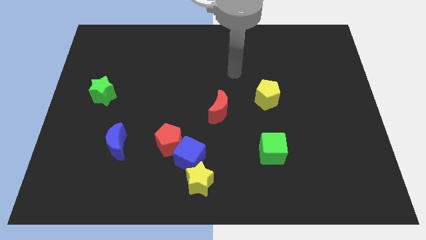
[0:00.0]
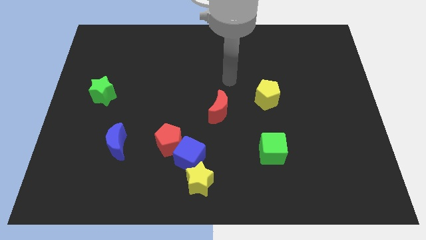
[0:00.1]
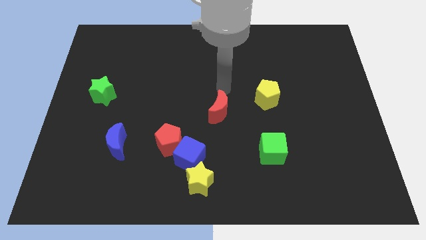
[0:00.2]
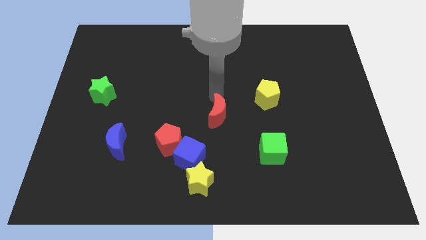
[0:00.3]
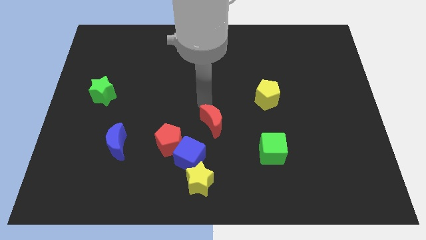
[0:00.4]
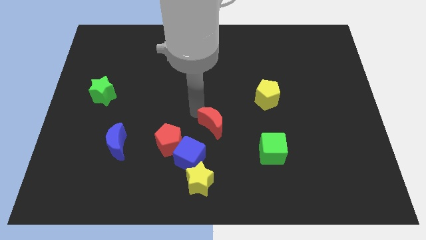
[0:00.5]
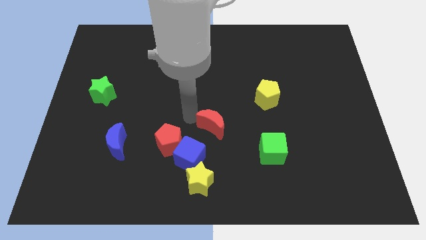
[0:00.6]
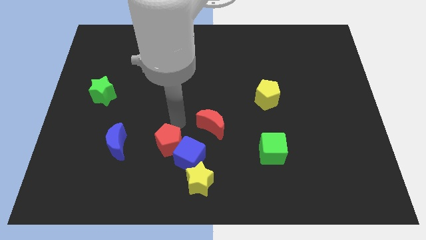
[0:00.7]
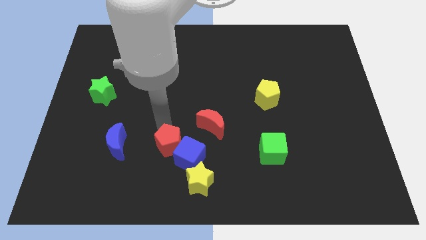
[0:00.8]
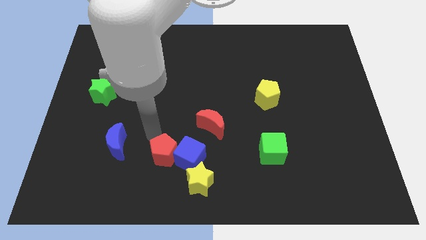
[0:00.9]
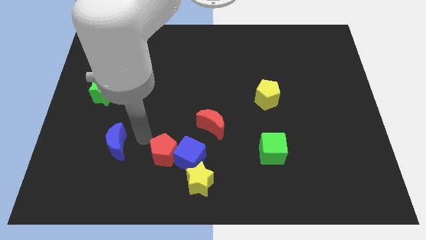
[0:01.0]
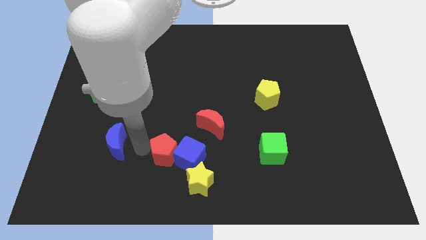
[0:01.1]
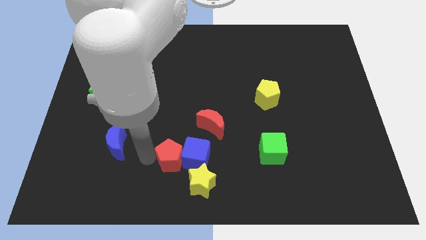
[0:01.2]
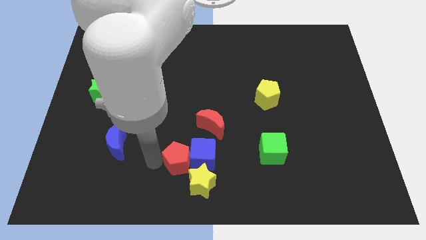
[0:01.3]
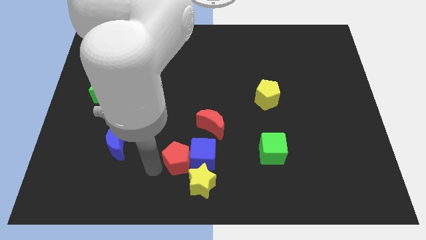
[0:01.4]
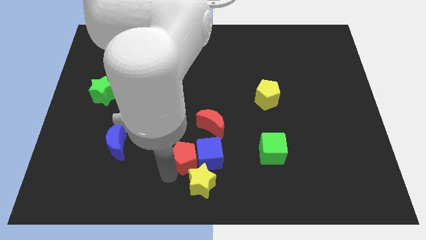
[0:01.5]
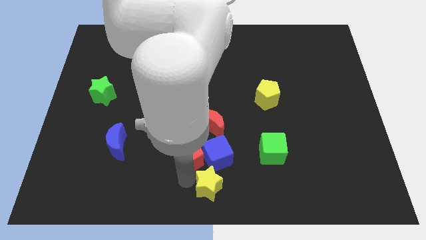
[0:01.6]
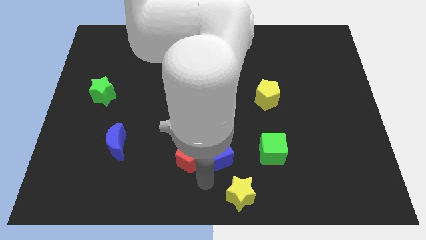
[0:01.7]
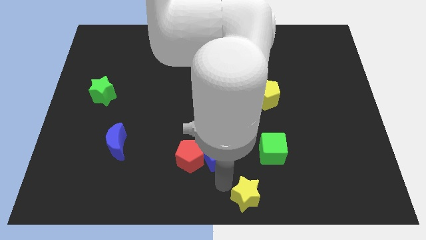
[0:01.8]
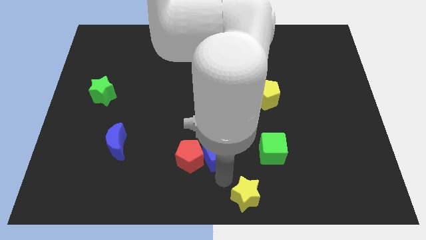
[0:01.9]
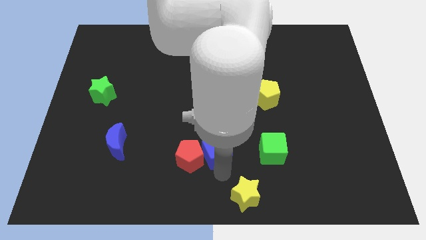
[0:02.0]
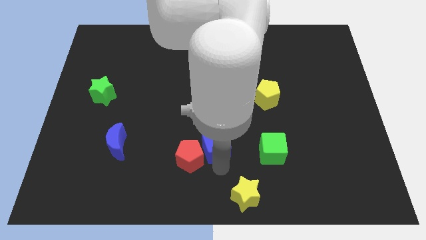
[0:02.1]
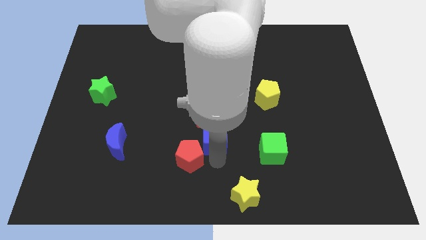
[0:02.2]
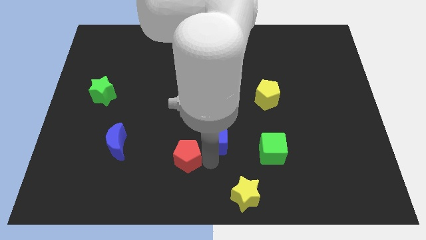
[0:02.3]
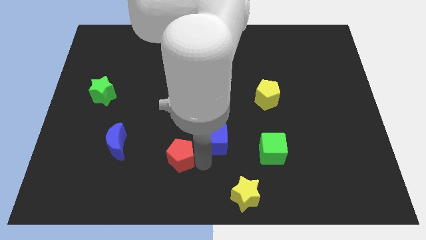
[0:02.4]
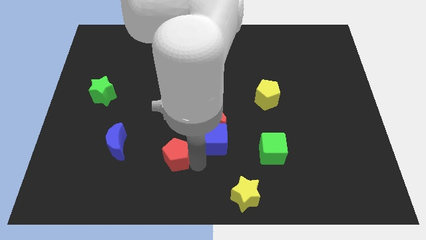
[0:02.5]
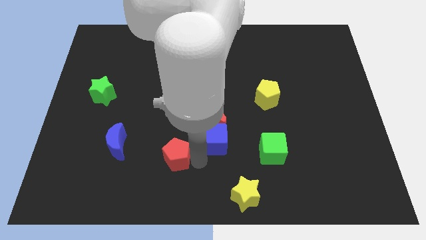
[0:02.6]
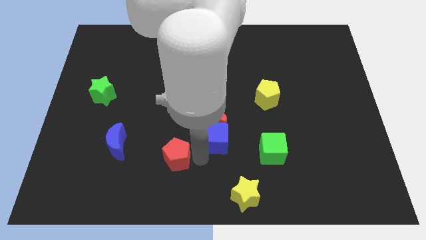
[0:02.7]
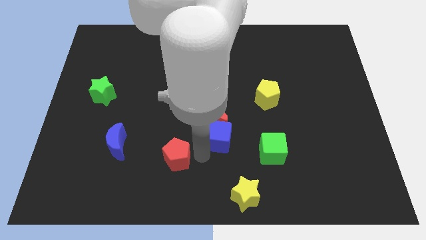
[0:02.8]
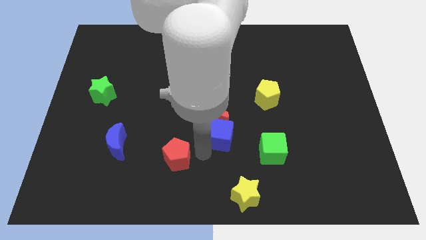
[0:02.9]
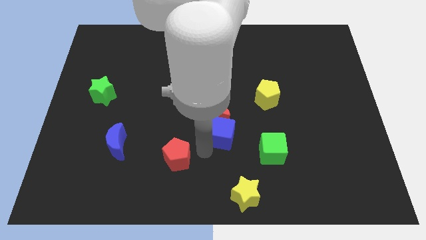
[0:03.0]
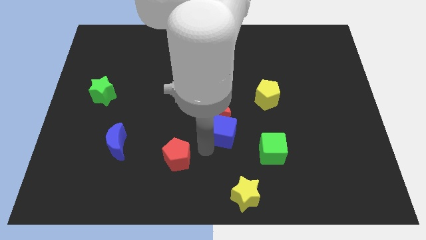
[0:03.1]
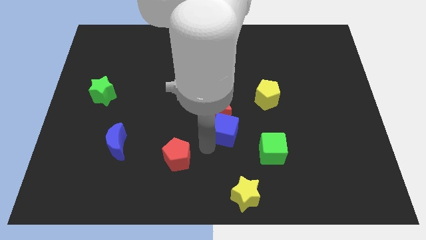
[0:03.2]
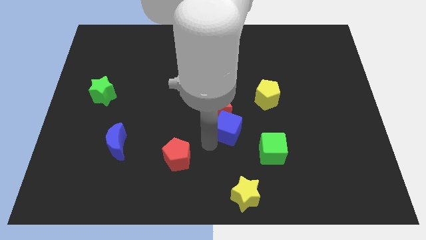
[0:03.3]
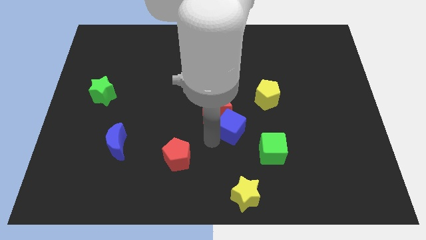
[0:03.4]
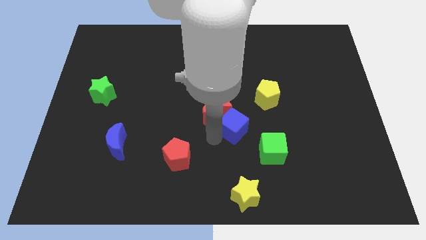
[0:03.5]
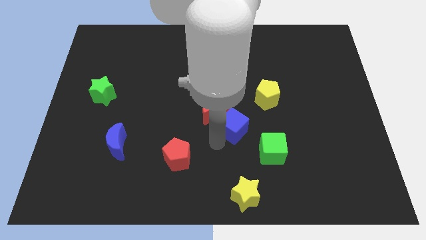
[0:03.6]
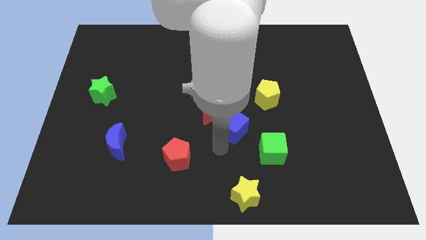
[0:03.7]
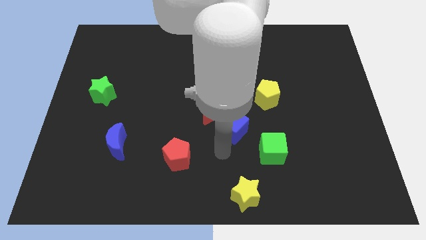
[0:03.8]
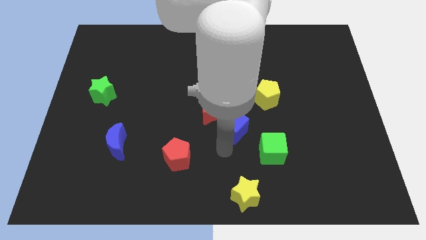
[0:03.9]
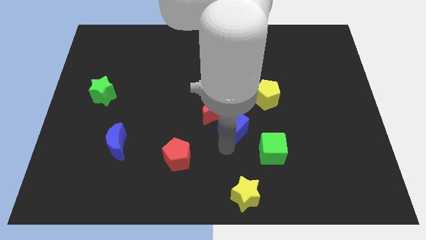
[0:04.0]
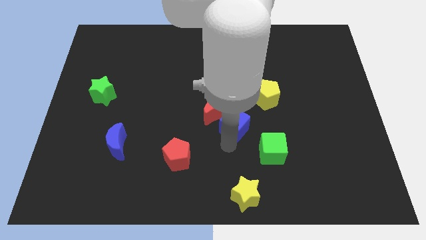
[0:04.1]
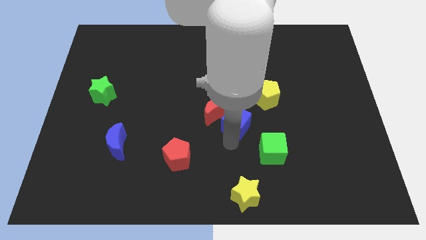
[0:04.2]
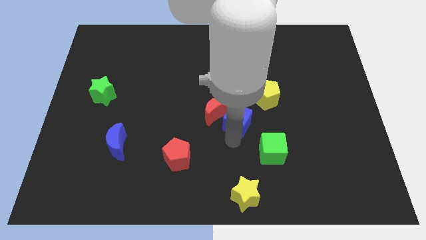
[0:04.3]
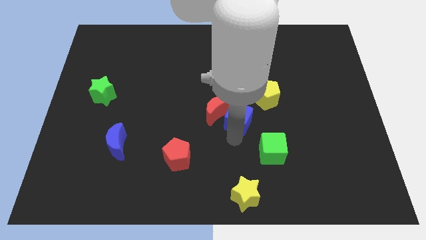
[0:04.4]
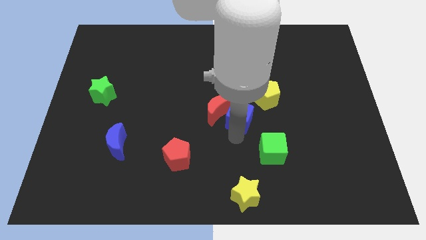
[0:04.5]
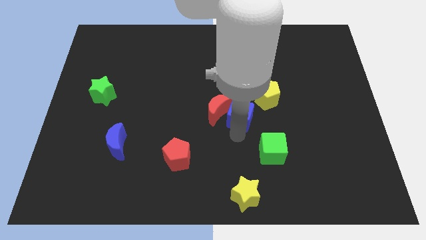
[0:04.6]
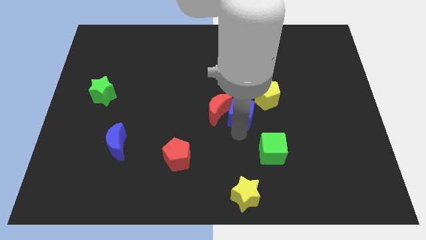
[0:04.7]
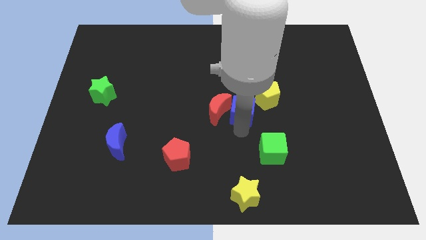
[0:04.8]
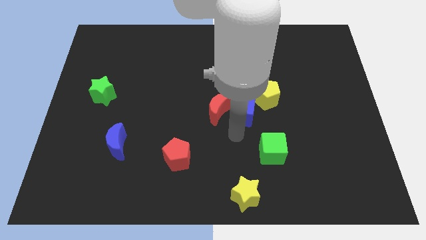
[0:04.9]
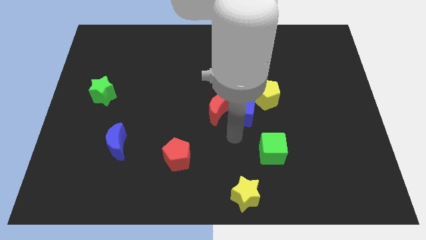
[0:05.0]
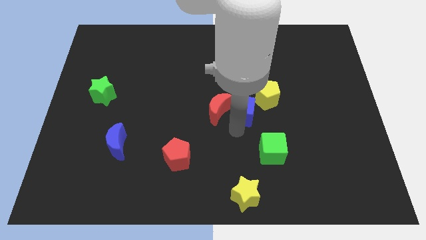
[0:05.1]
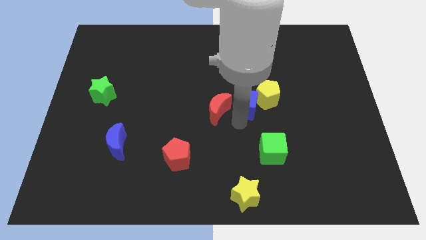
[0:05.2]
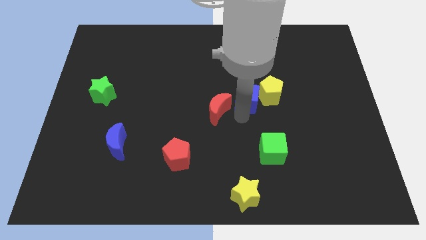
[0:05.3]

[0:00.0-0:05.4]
push the blue cube diagonally upwards and to the right

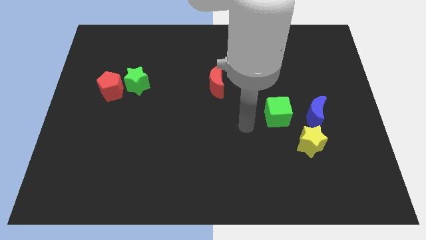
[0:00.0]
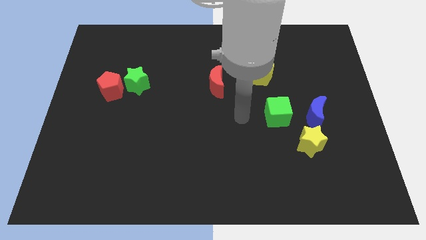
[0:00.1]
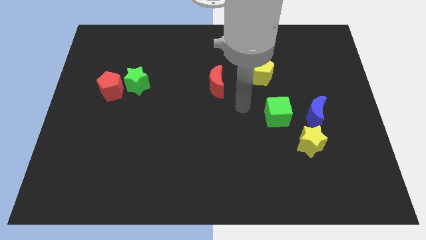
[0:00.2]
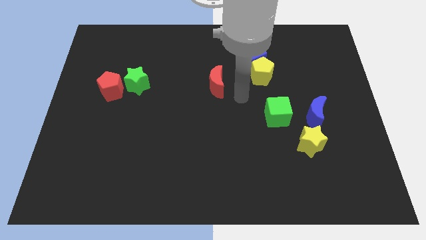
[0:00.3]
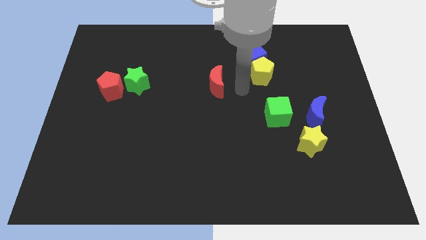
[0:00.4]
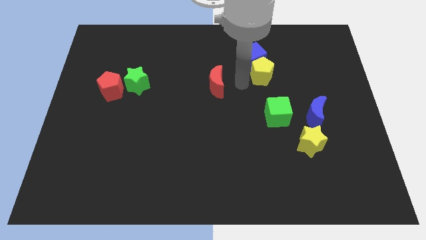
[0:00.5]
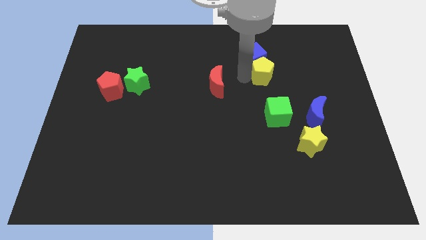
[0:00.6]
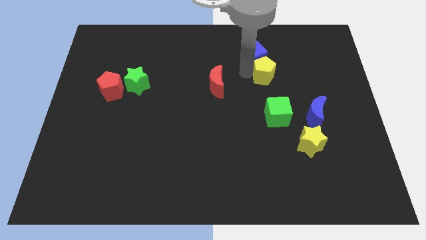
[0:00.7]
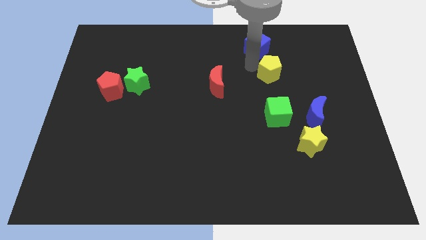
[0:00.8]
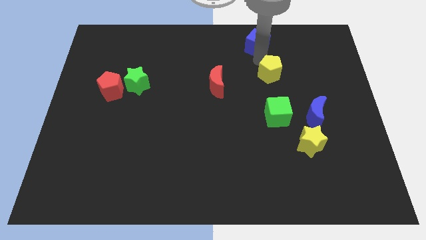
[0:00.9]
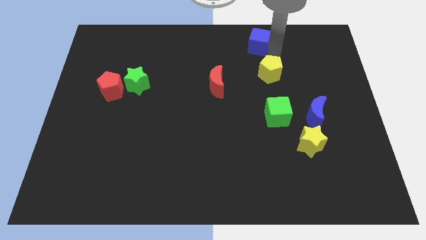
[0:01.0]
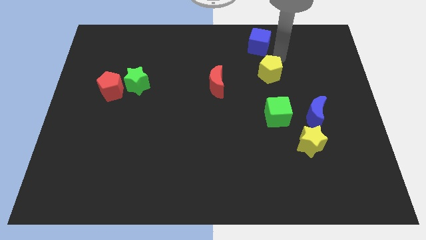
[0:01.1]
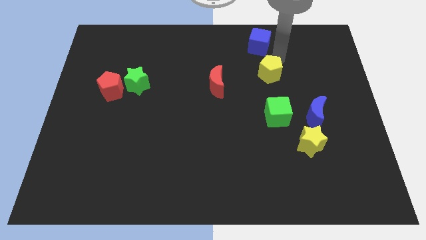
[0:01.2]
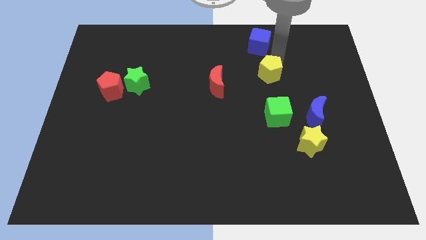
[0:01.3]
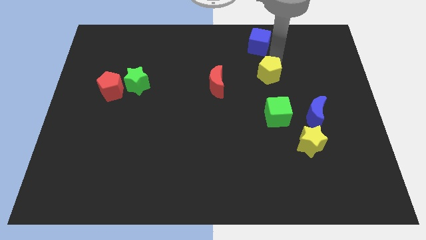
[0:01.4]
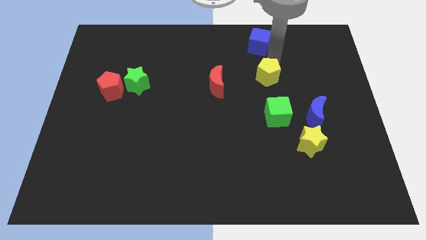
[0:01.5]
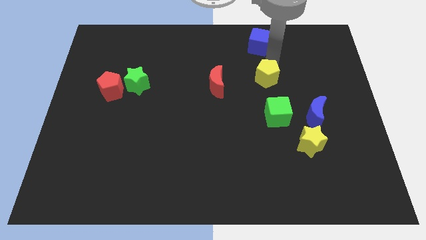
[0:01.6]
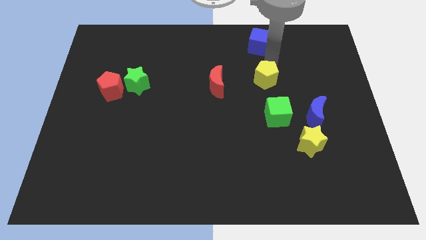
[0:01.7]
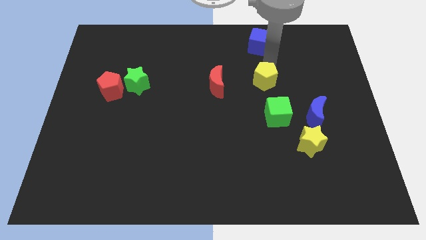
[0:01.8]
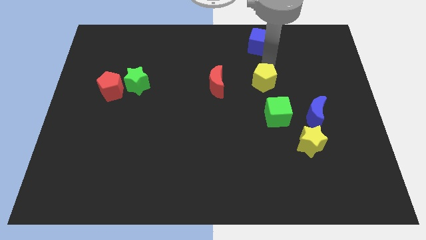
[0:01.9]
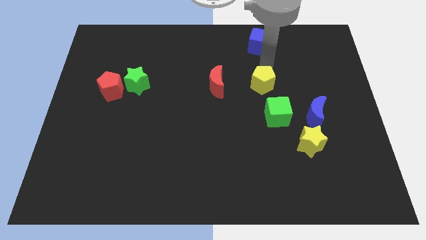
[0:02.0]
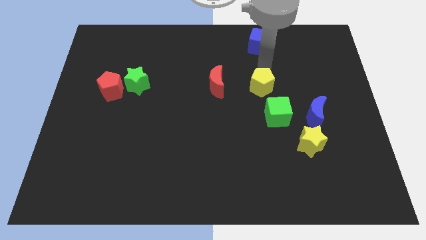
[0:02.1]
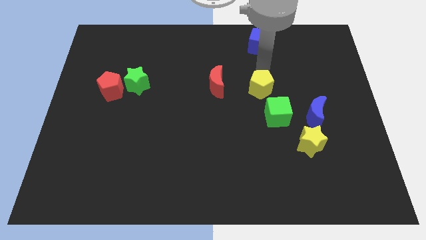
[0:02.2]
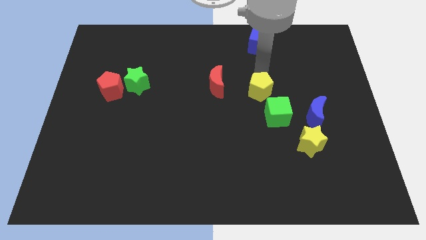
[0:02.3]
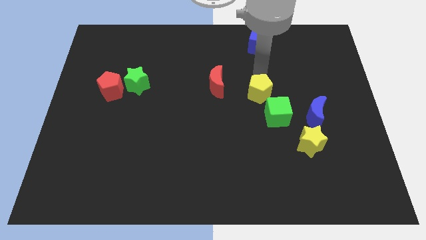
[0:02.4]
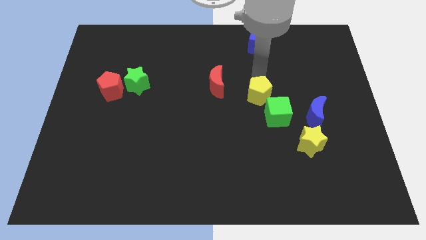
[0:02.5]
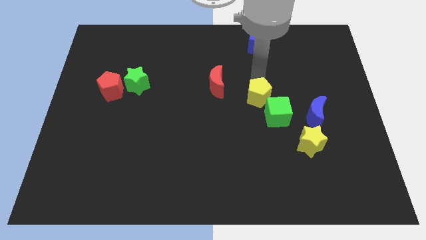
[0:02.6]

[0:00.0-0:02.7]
move the yellow pentagon downwards slightly
